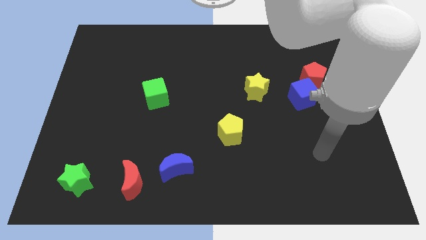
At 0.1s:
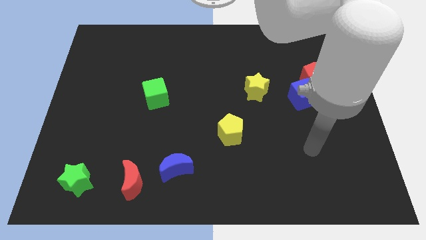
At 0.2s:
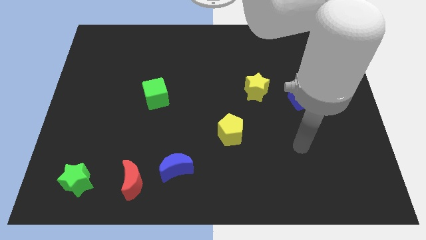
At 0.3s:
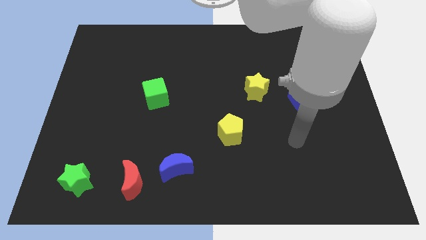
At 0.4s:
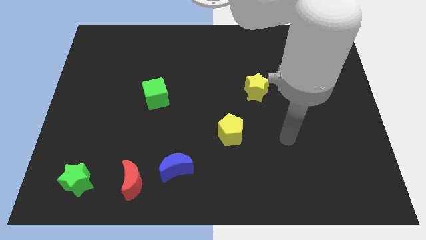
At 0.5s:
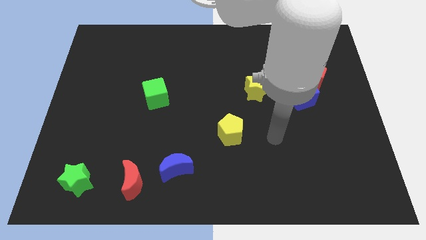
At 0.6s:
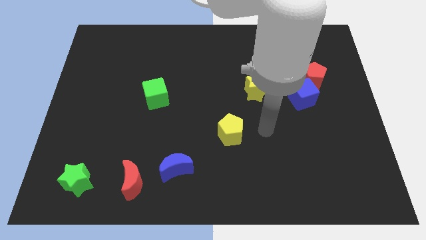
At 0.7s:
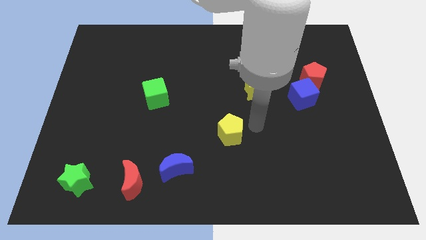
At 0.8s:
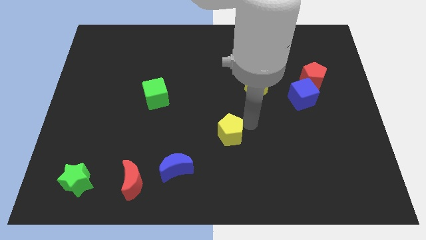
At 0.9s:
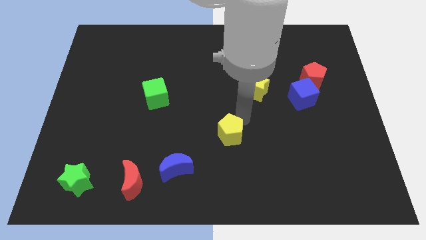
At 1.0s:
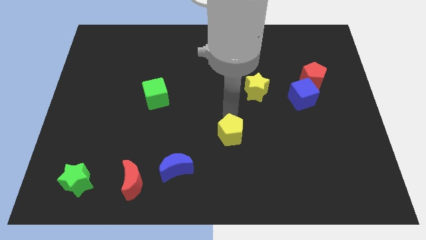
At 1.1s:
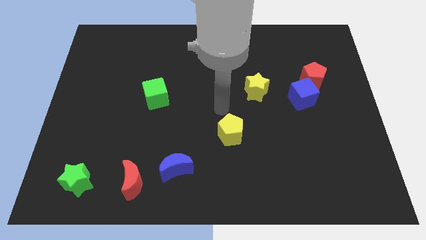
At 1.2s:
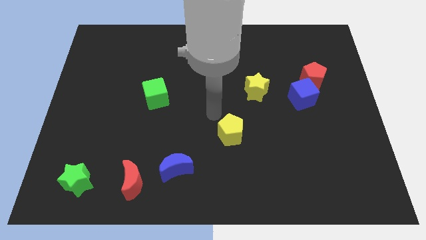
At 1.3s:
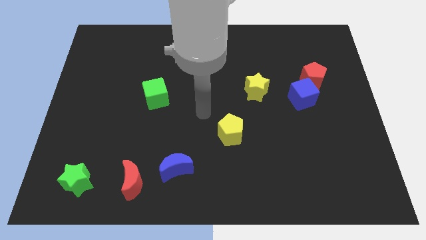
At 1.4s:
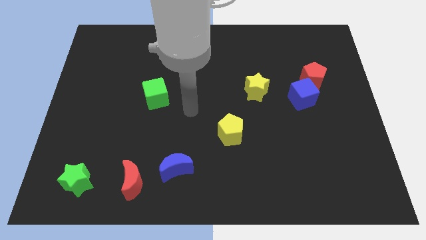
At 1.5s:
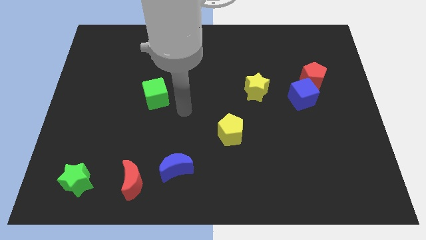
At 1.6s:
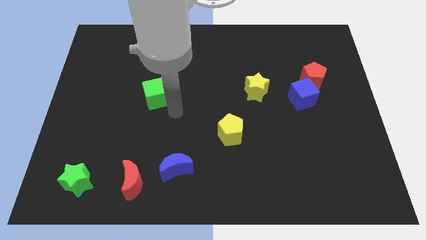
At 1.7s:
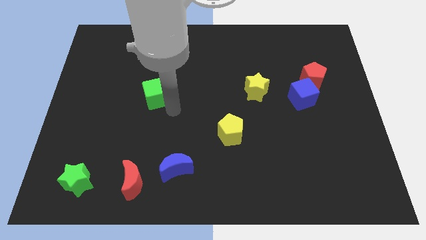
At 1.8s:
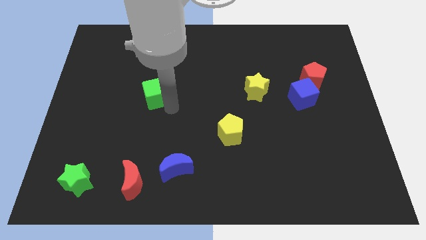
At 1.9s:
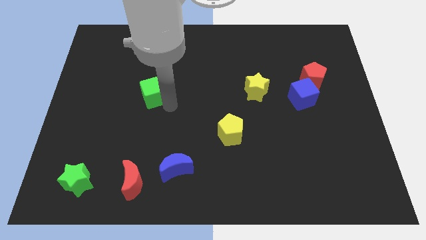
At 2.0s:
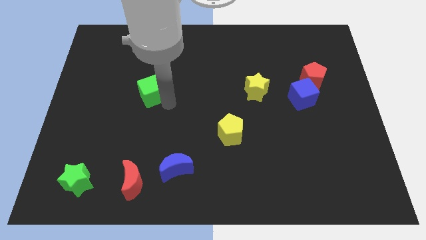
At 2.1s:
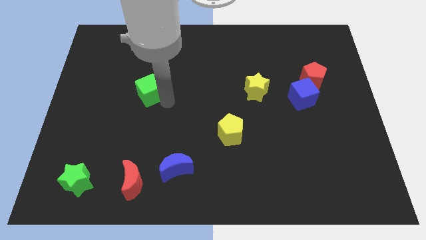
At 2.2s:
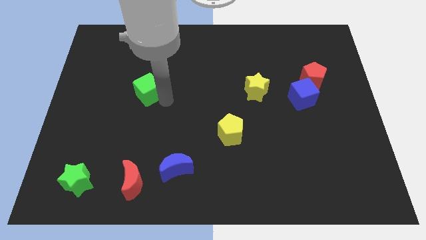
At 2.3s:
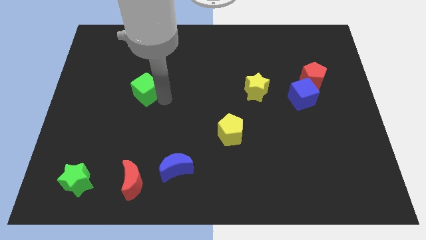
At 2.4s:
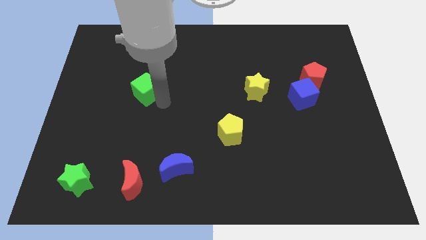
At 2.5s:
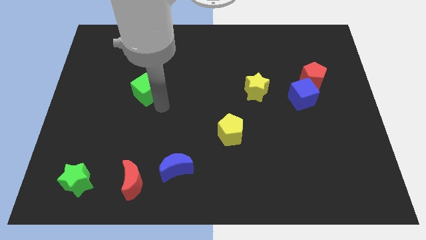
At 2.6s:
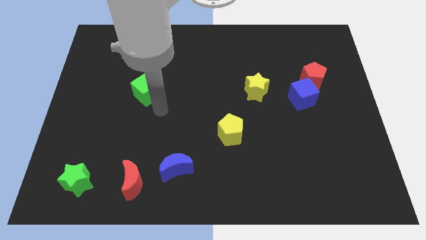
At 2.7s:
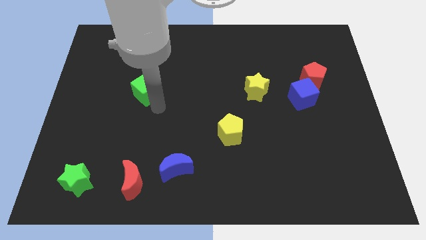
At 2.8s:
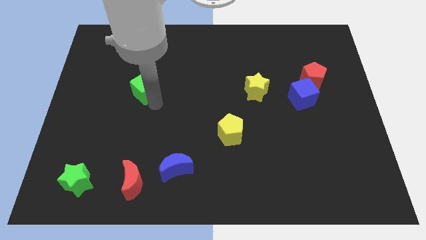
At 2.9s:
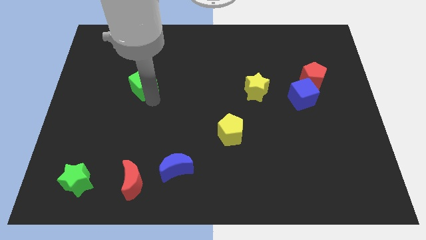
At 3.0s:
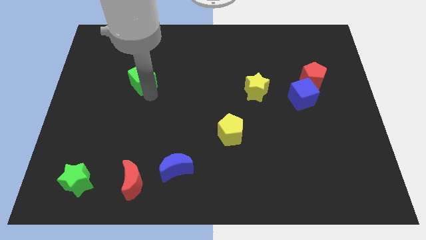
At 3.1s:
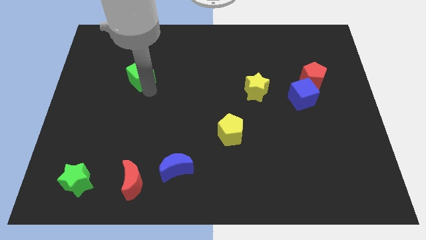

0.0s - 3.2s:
slightly move the green cube up and then to the left

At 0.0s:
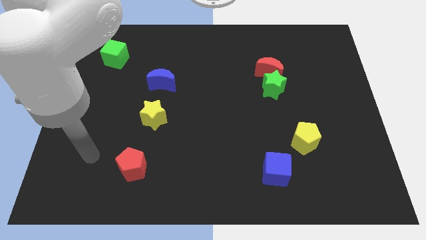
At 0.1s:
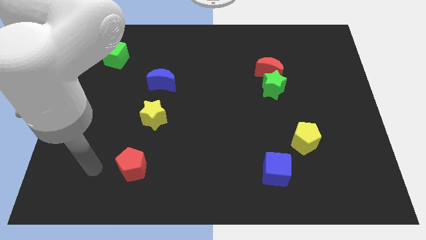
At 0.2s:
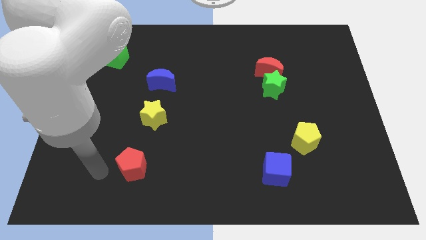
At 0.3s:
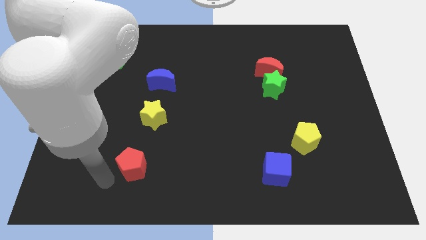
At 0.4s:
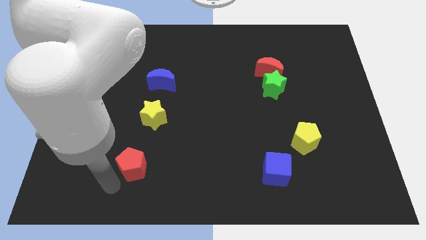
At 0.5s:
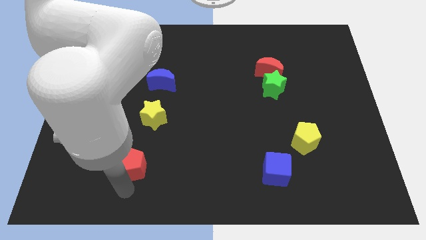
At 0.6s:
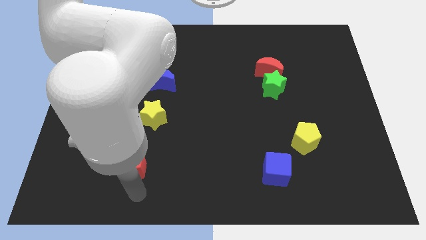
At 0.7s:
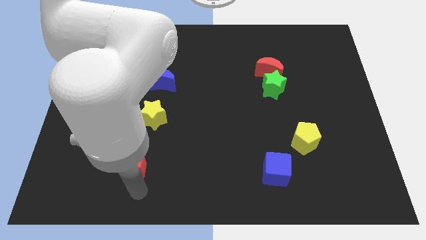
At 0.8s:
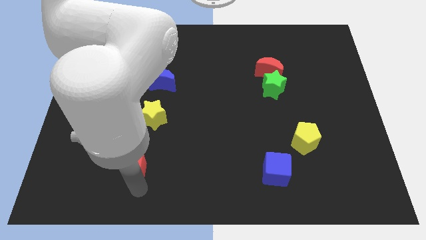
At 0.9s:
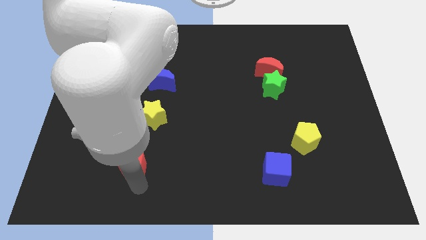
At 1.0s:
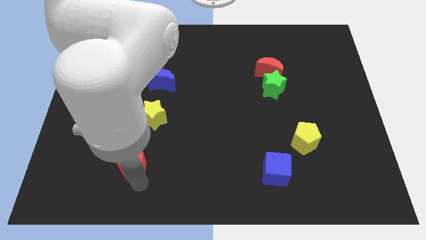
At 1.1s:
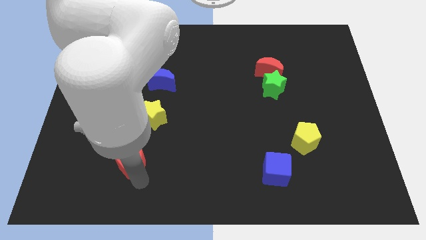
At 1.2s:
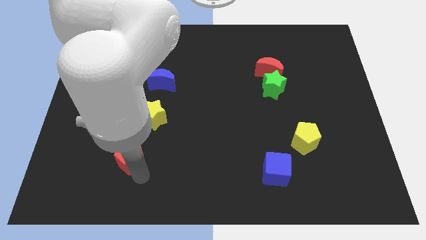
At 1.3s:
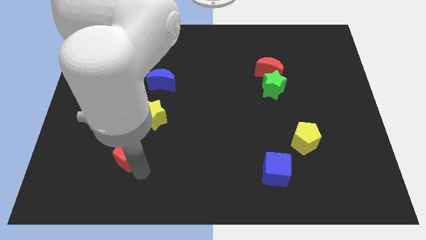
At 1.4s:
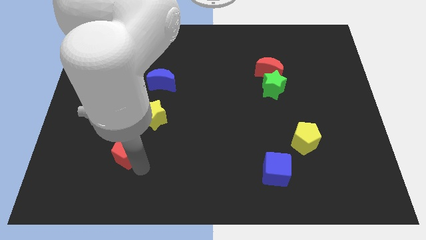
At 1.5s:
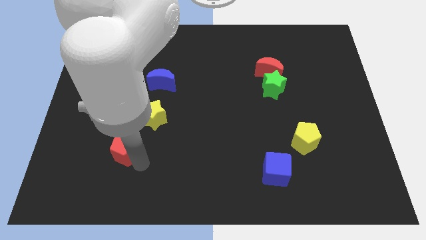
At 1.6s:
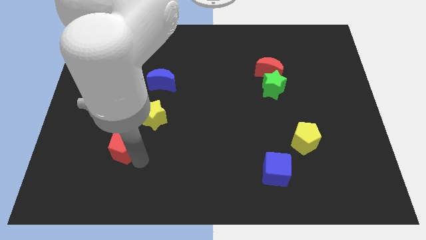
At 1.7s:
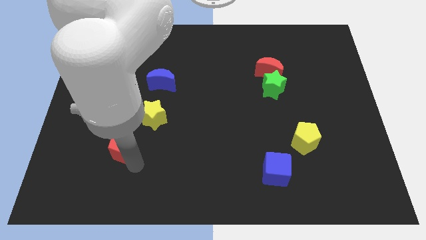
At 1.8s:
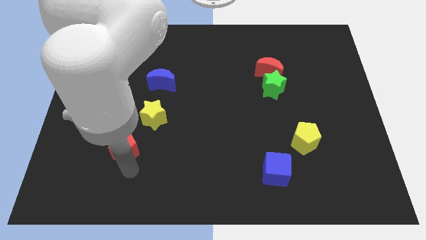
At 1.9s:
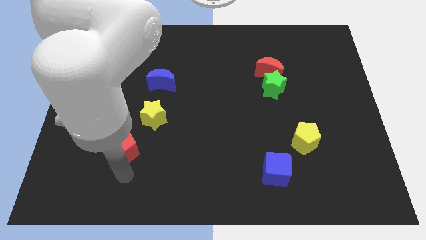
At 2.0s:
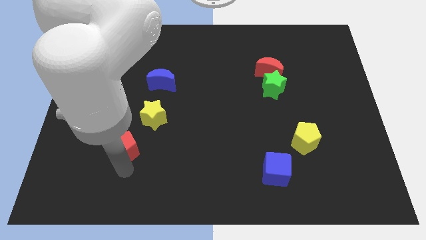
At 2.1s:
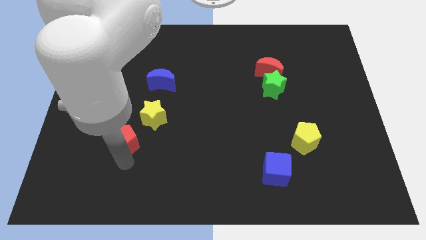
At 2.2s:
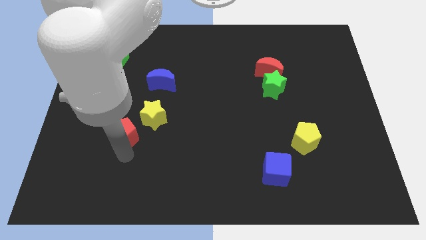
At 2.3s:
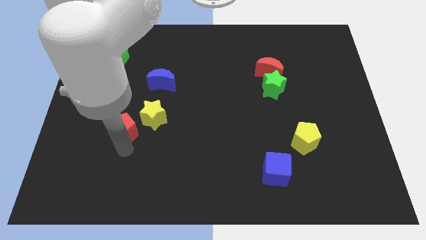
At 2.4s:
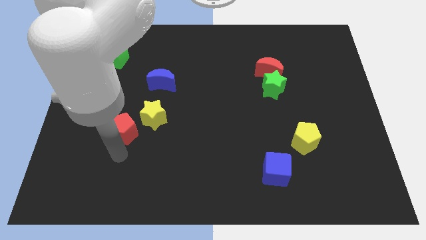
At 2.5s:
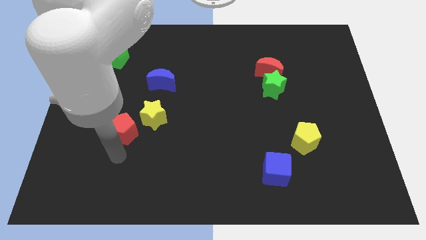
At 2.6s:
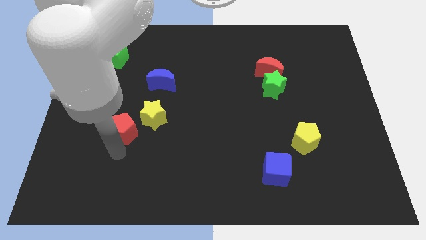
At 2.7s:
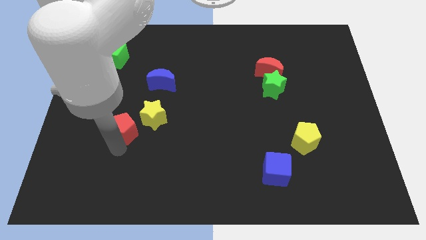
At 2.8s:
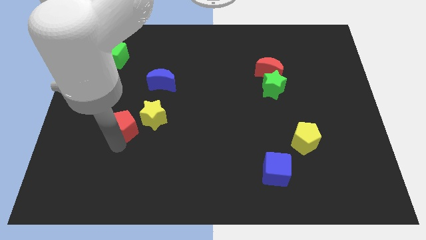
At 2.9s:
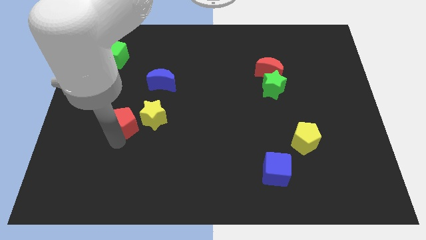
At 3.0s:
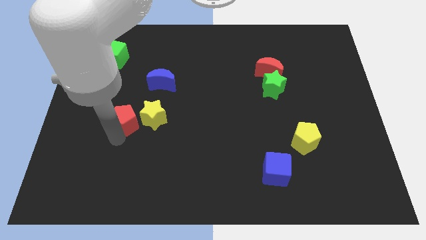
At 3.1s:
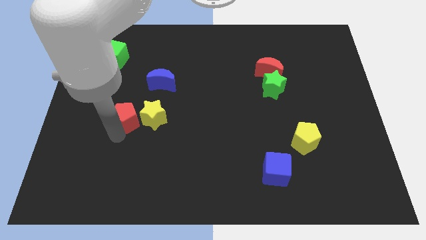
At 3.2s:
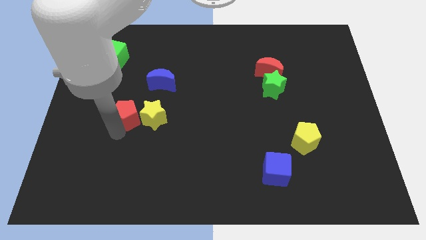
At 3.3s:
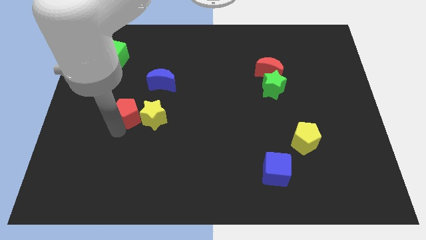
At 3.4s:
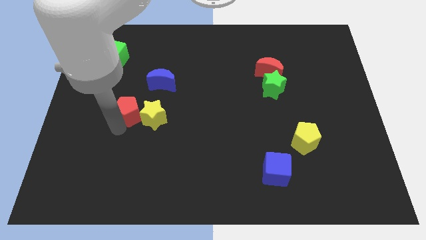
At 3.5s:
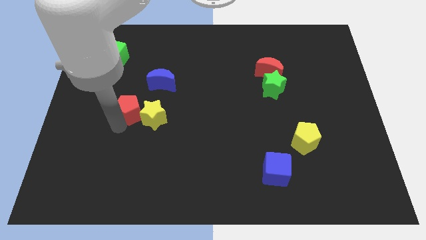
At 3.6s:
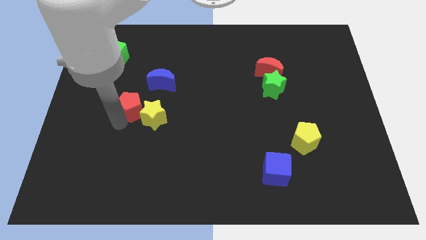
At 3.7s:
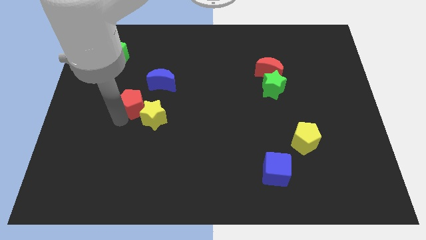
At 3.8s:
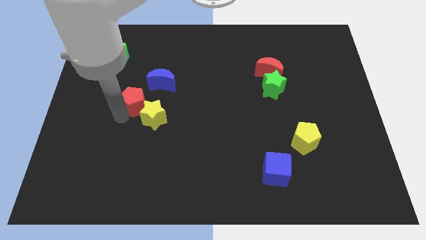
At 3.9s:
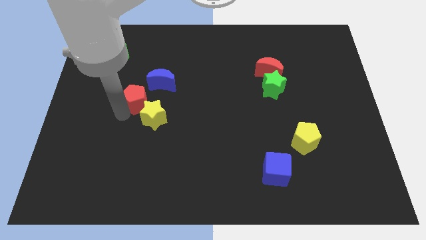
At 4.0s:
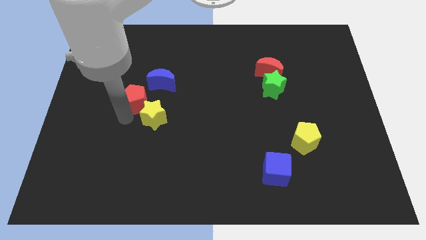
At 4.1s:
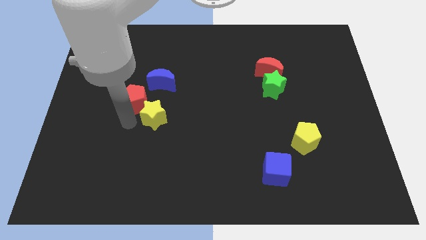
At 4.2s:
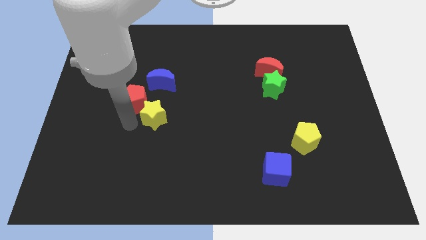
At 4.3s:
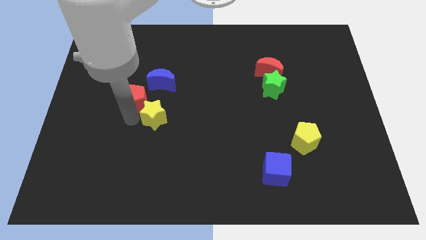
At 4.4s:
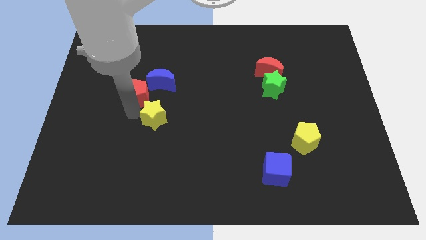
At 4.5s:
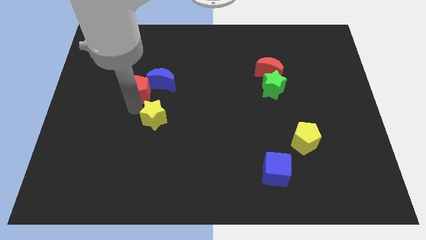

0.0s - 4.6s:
move the red pentagon up

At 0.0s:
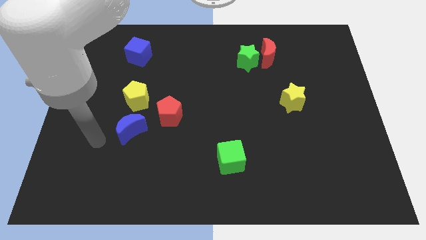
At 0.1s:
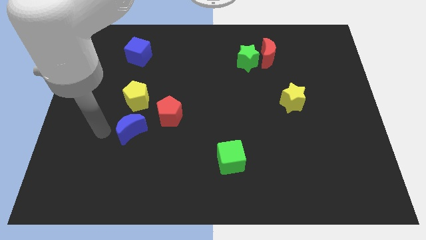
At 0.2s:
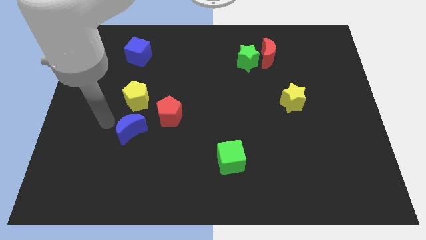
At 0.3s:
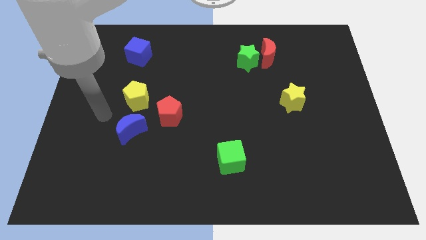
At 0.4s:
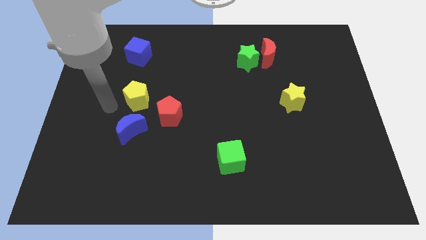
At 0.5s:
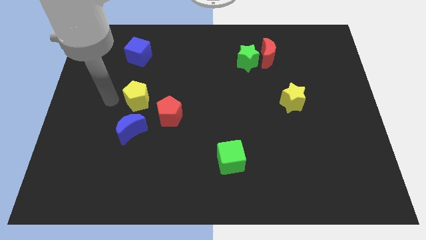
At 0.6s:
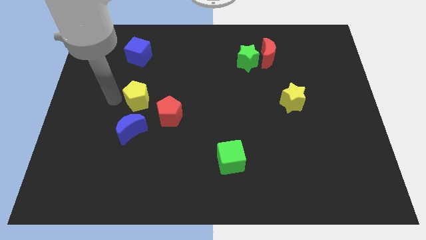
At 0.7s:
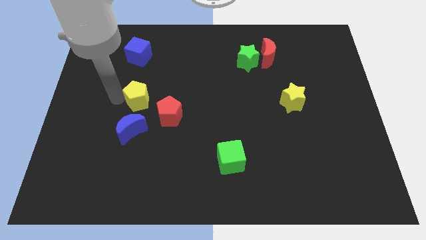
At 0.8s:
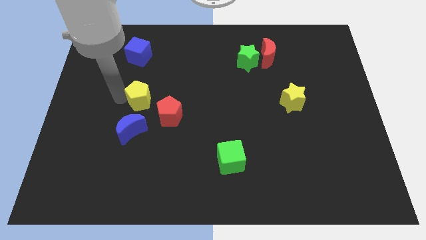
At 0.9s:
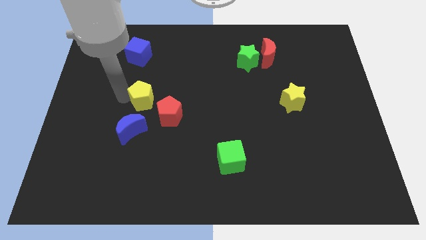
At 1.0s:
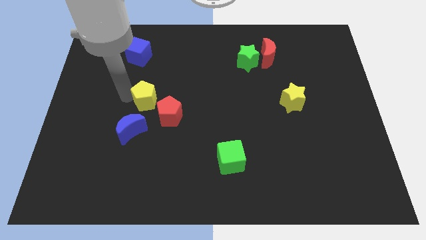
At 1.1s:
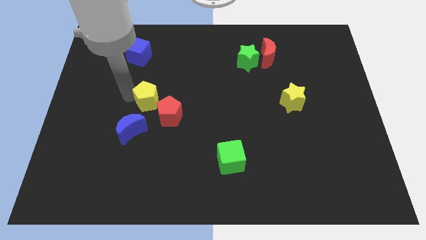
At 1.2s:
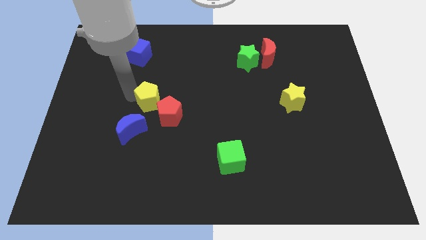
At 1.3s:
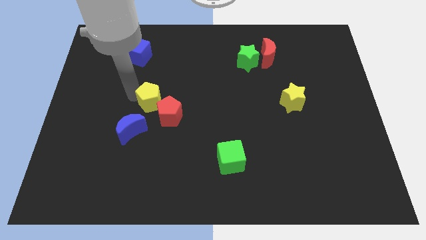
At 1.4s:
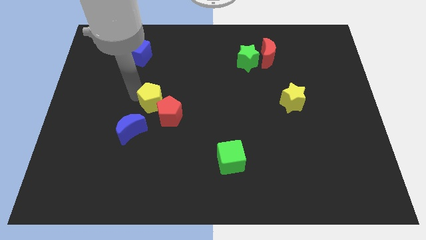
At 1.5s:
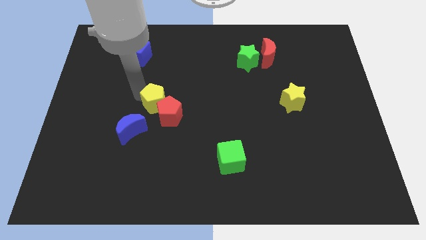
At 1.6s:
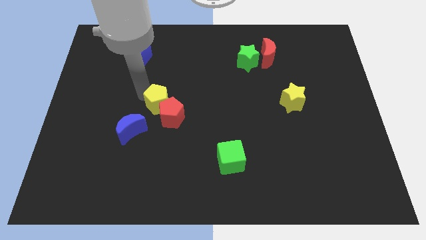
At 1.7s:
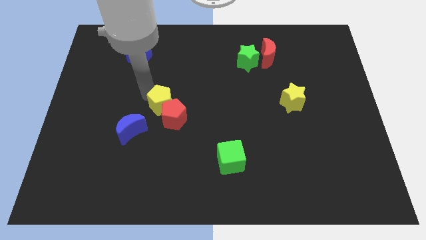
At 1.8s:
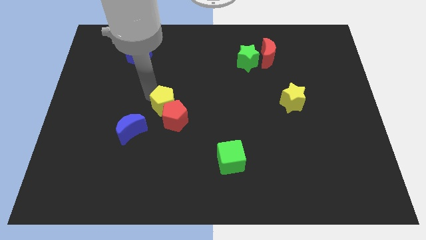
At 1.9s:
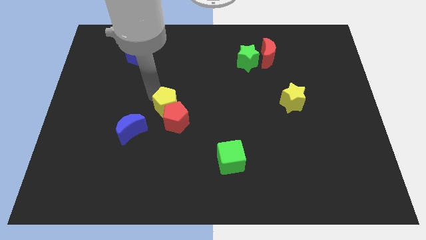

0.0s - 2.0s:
push the yellow pentagon right somewhat
